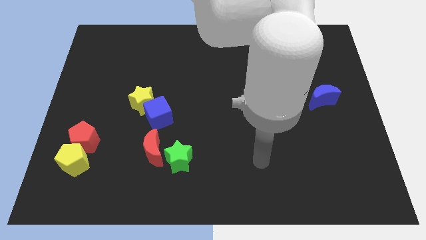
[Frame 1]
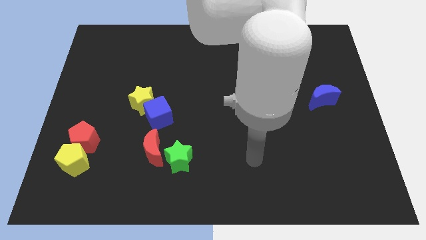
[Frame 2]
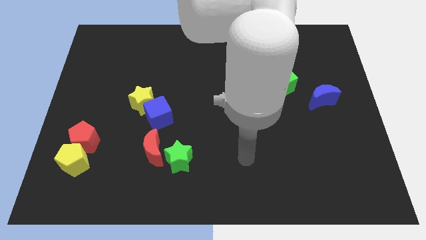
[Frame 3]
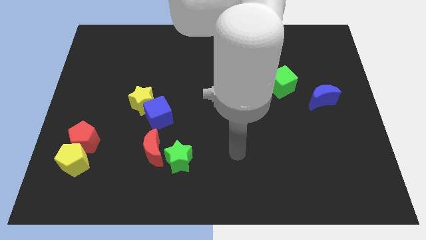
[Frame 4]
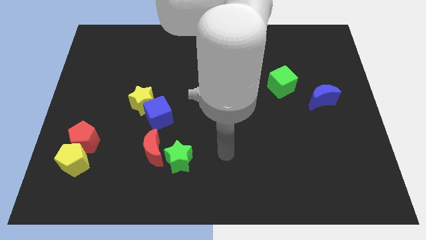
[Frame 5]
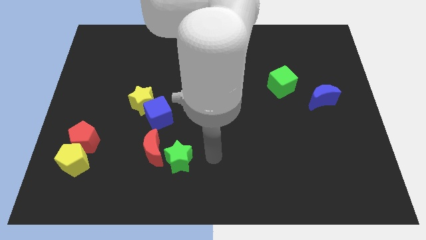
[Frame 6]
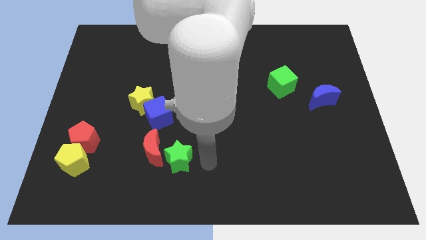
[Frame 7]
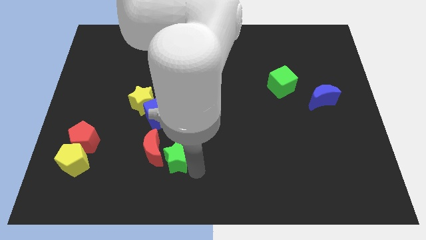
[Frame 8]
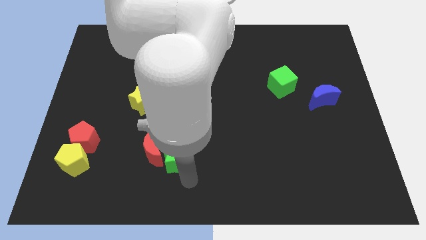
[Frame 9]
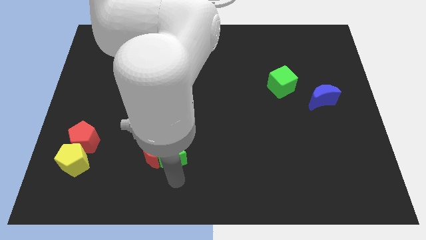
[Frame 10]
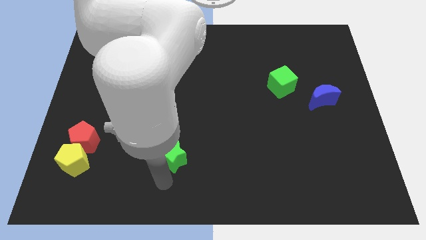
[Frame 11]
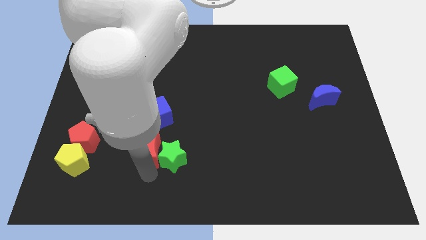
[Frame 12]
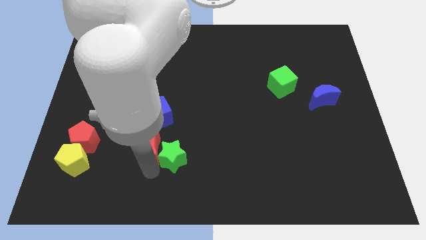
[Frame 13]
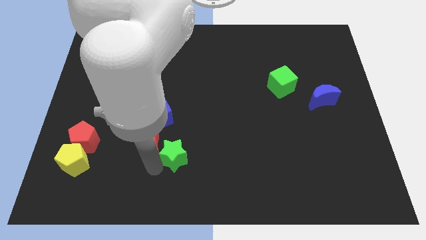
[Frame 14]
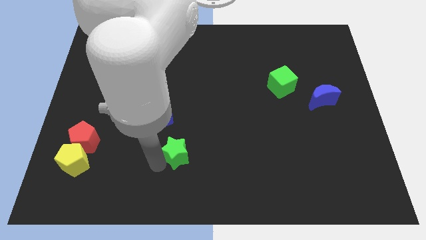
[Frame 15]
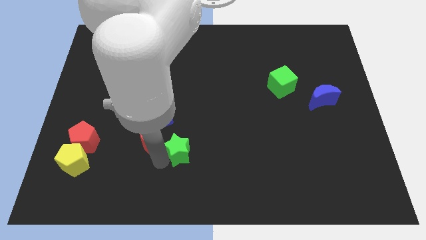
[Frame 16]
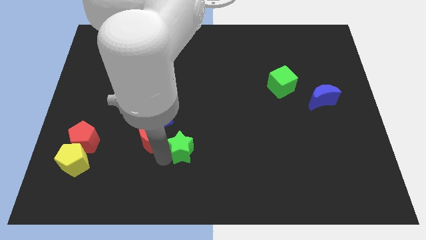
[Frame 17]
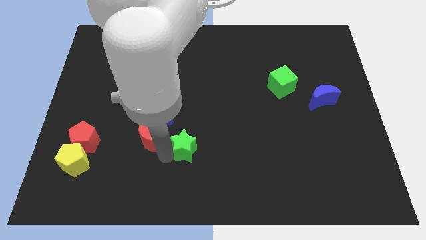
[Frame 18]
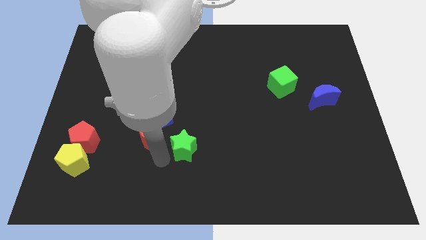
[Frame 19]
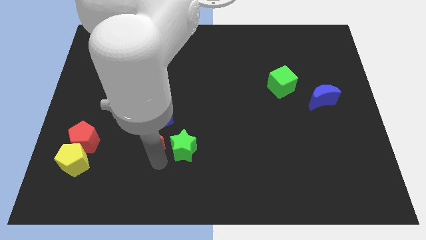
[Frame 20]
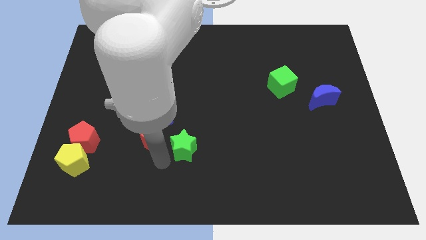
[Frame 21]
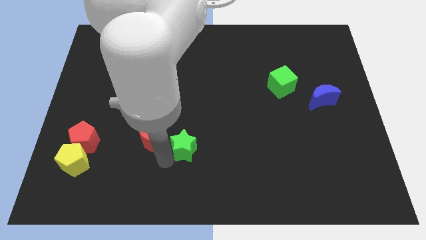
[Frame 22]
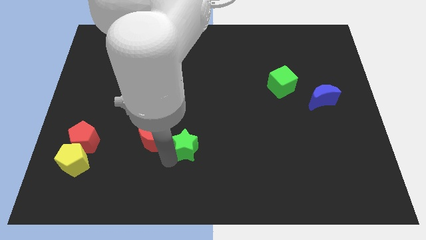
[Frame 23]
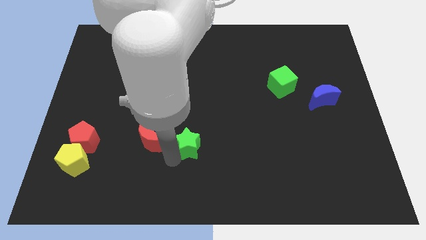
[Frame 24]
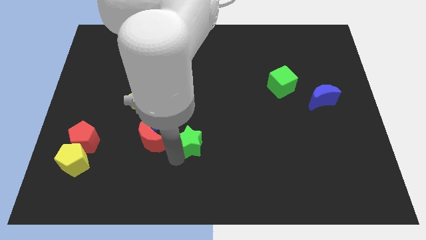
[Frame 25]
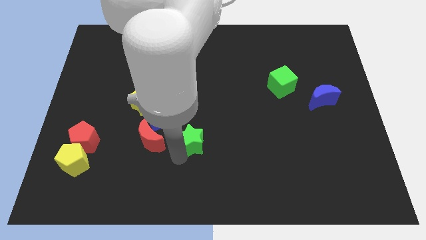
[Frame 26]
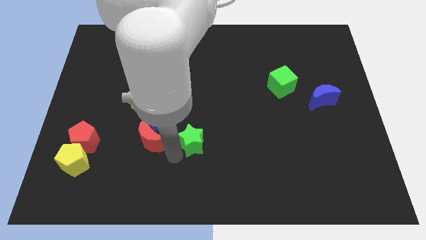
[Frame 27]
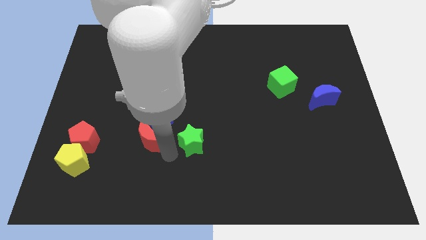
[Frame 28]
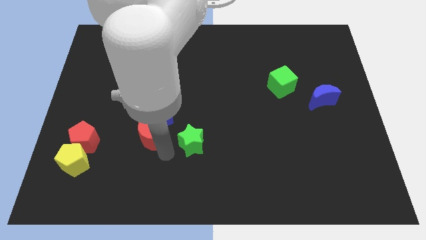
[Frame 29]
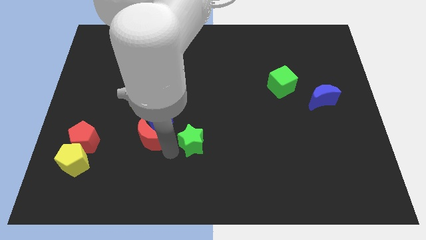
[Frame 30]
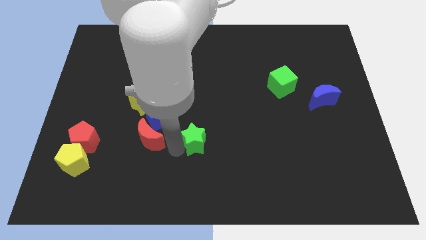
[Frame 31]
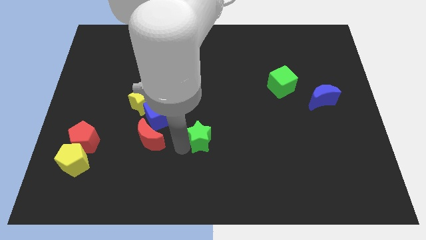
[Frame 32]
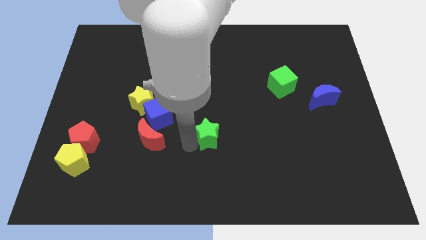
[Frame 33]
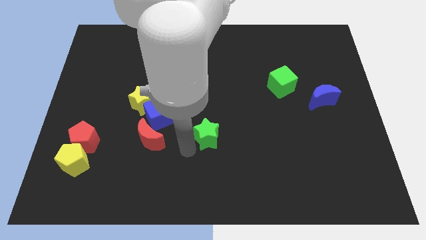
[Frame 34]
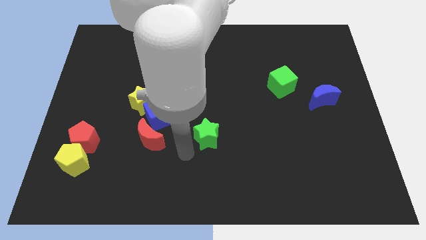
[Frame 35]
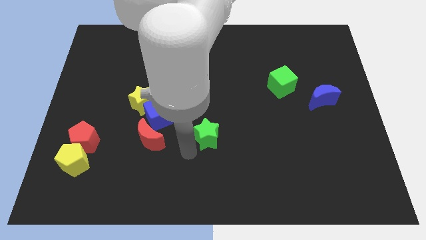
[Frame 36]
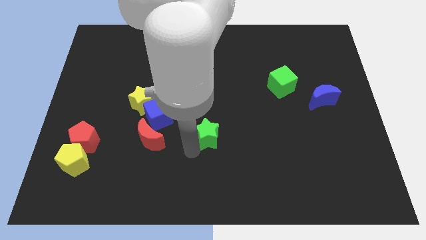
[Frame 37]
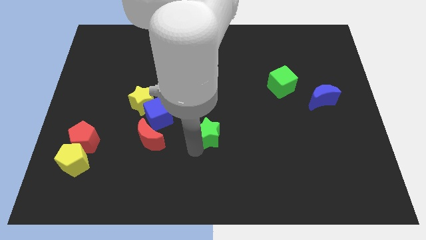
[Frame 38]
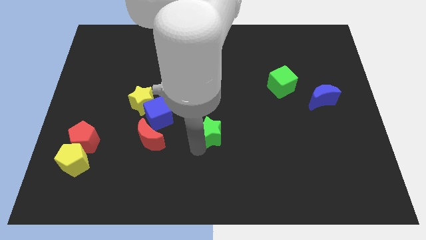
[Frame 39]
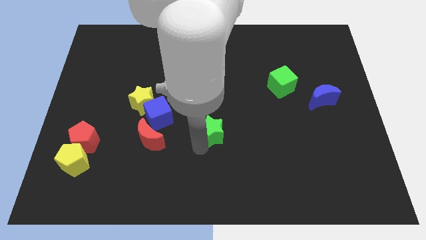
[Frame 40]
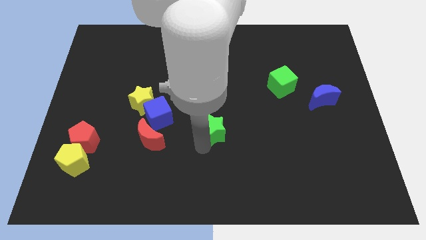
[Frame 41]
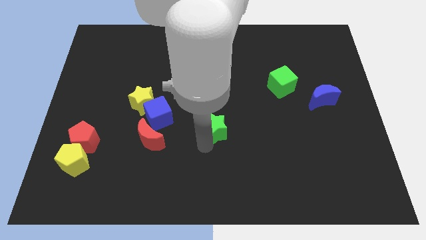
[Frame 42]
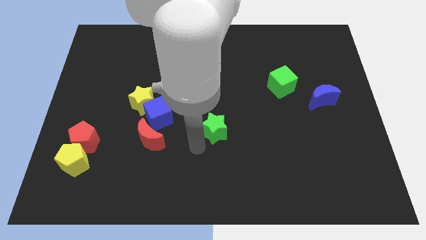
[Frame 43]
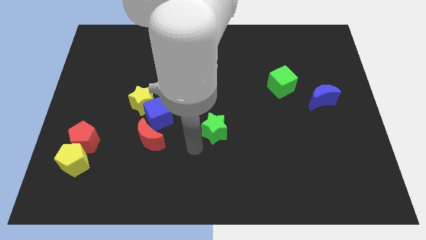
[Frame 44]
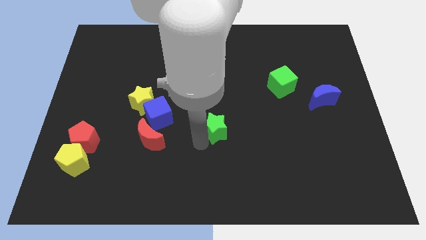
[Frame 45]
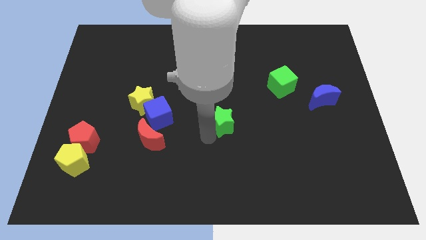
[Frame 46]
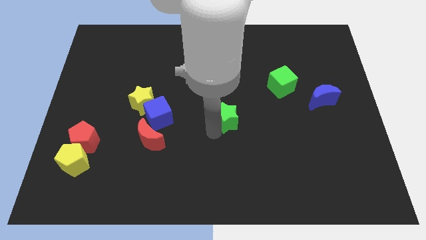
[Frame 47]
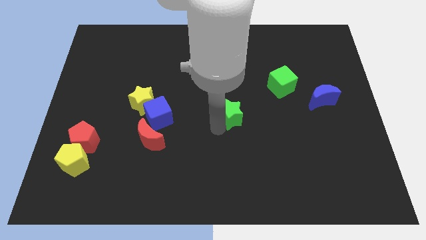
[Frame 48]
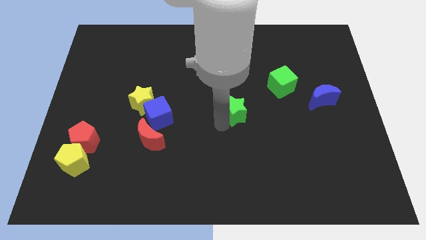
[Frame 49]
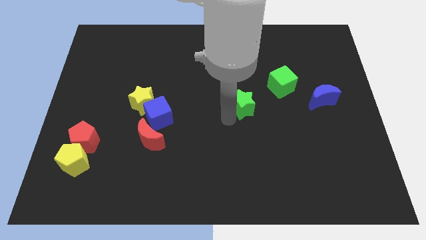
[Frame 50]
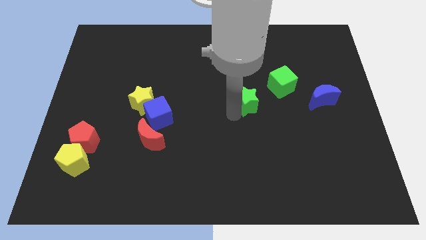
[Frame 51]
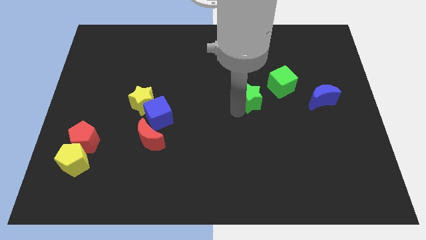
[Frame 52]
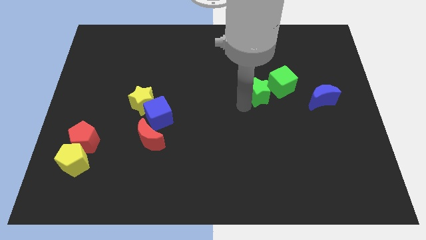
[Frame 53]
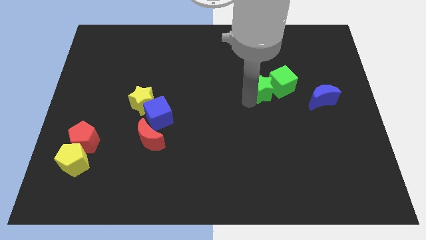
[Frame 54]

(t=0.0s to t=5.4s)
put the green star to the green cube

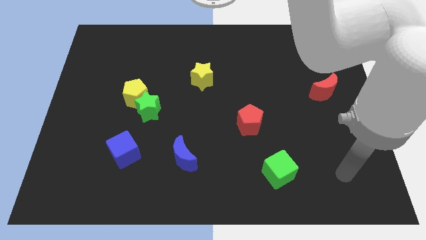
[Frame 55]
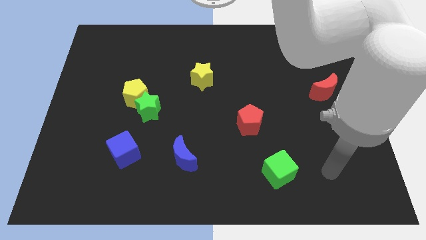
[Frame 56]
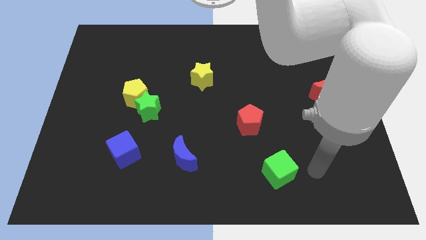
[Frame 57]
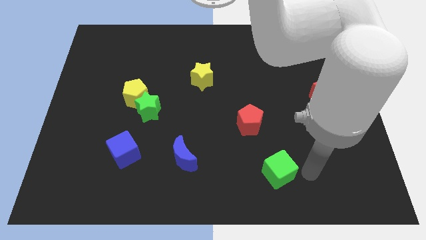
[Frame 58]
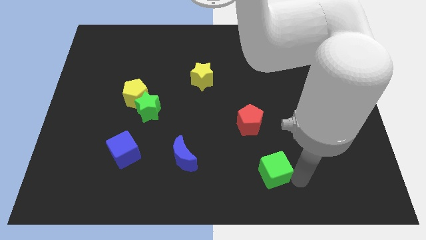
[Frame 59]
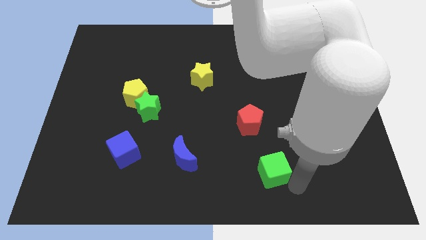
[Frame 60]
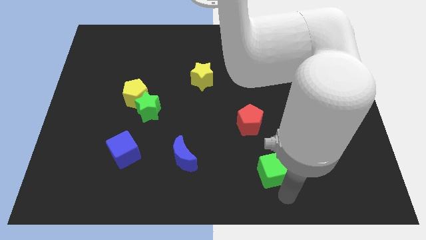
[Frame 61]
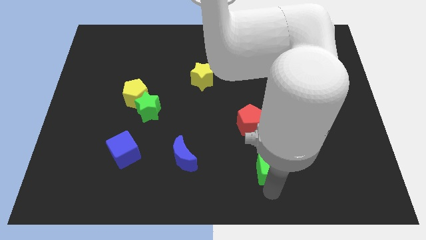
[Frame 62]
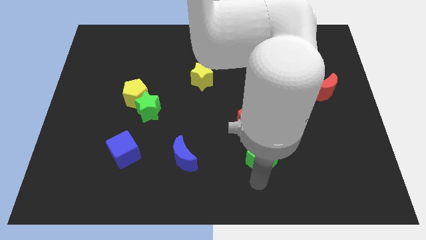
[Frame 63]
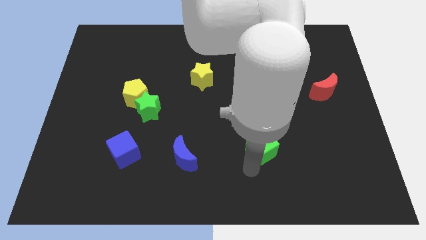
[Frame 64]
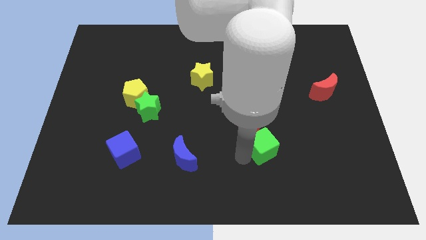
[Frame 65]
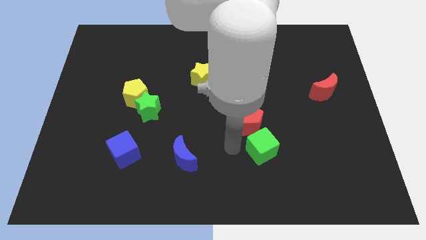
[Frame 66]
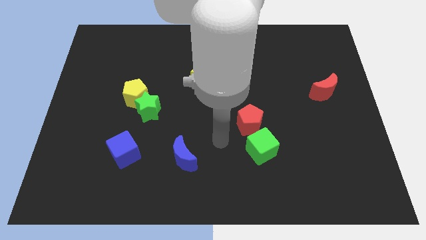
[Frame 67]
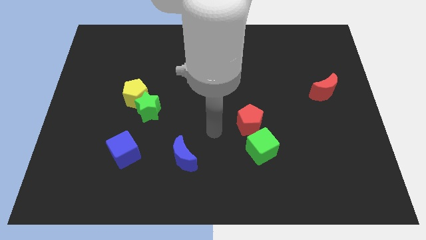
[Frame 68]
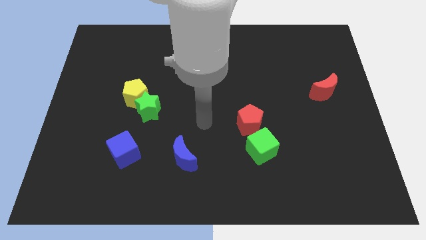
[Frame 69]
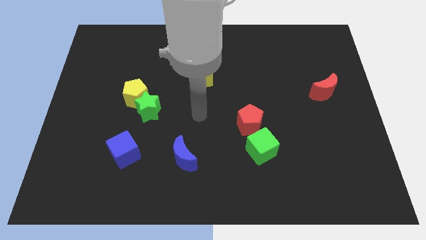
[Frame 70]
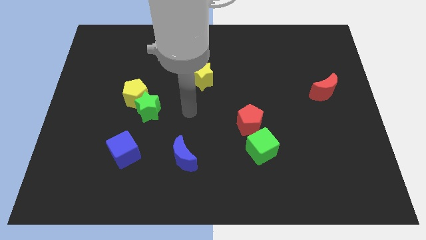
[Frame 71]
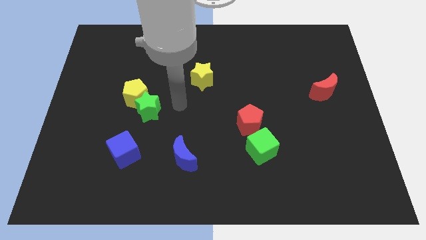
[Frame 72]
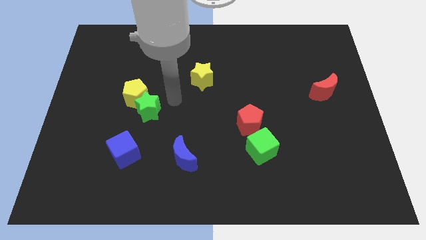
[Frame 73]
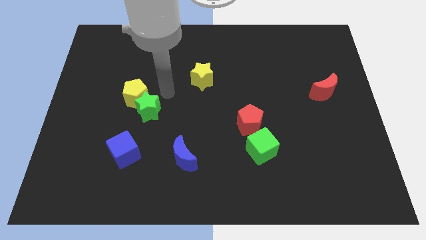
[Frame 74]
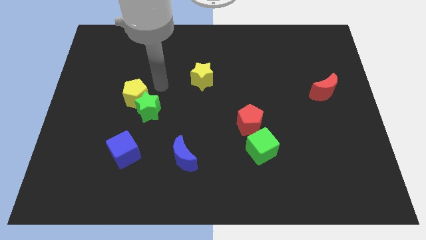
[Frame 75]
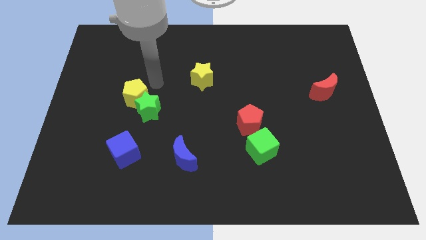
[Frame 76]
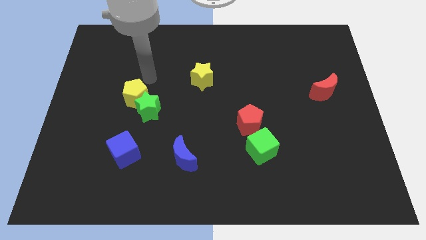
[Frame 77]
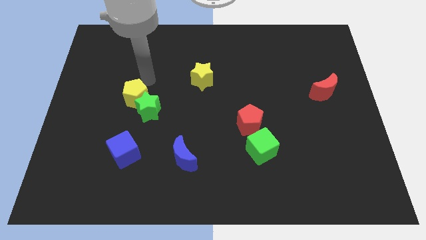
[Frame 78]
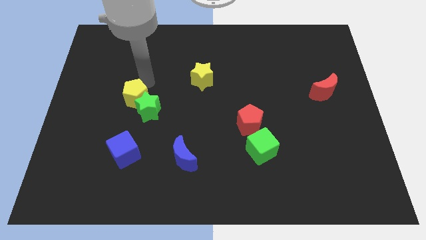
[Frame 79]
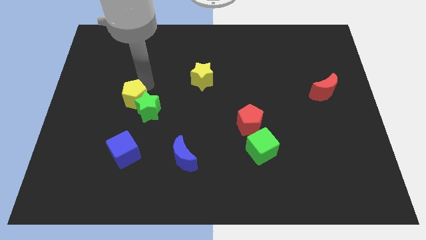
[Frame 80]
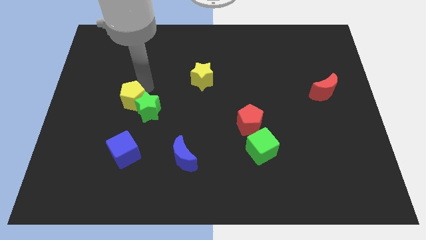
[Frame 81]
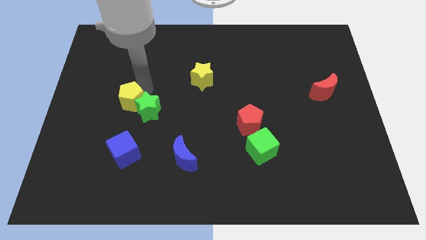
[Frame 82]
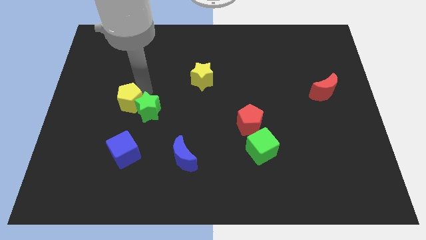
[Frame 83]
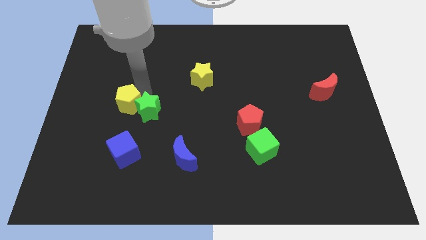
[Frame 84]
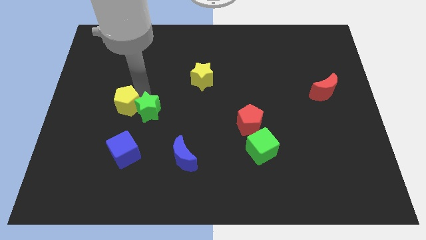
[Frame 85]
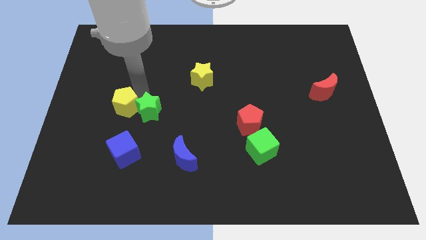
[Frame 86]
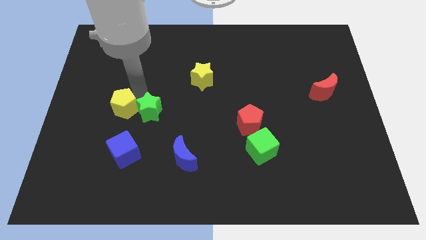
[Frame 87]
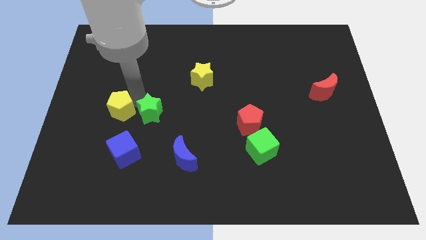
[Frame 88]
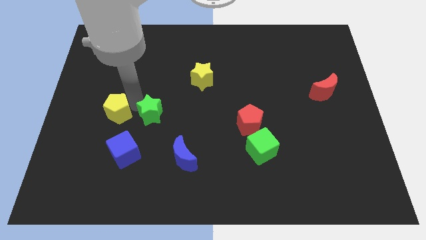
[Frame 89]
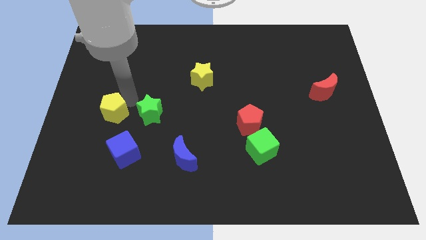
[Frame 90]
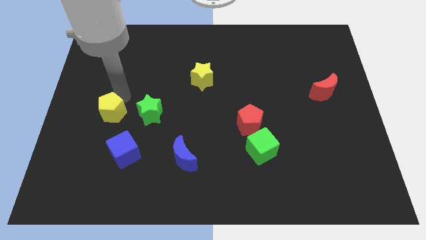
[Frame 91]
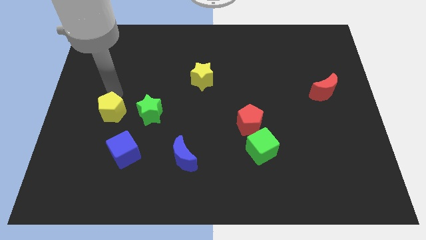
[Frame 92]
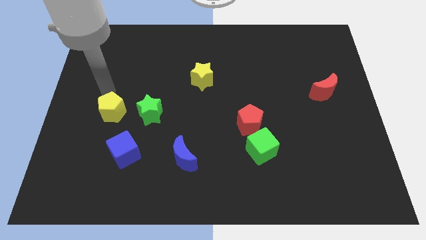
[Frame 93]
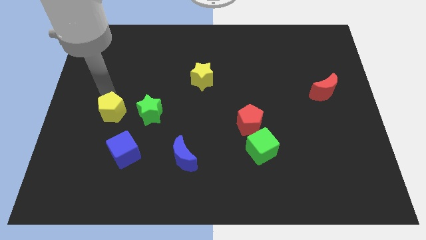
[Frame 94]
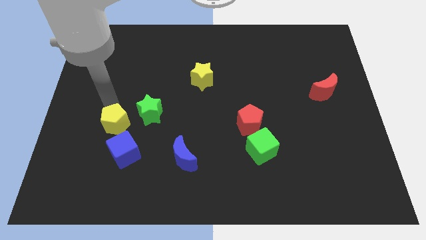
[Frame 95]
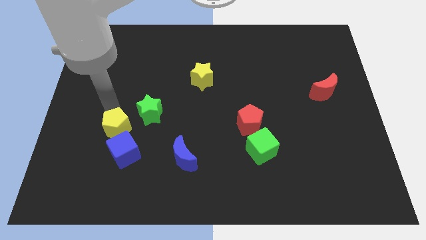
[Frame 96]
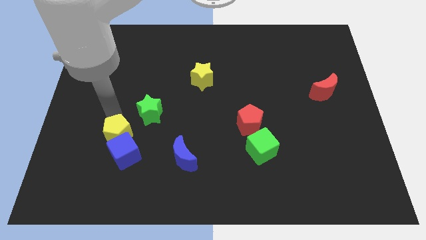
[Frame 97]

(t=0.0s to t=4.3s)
slide the yellow pentagon next to the blue cube
